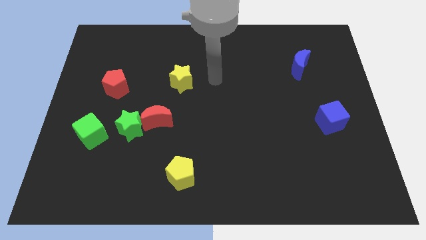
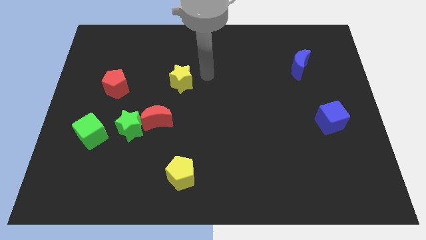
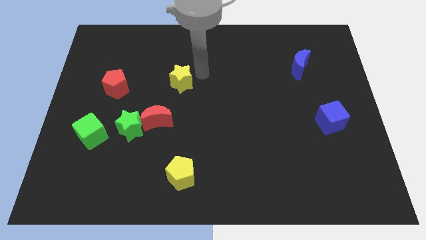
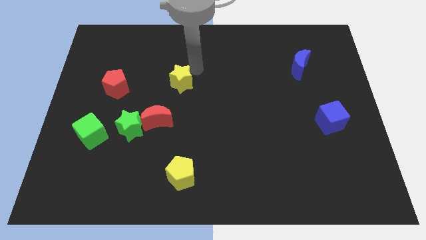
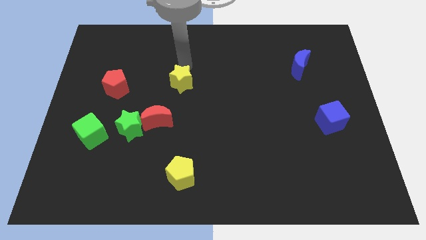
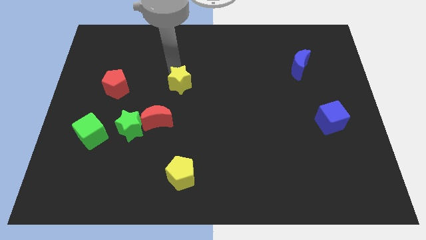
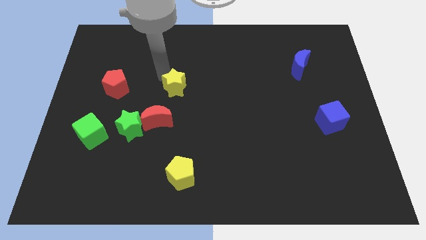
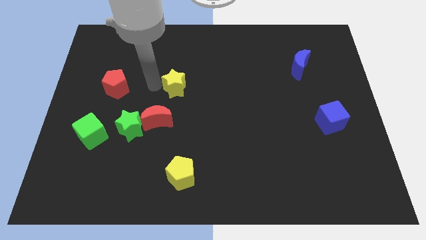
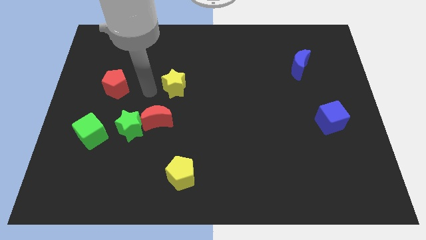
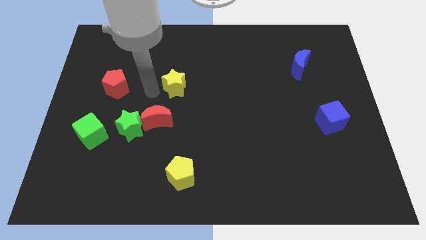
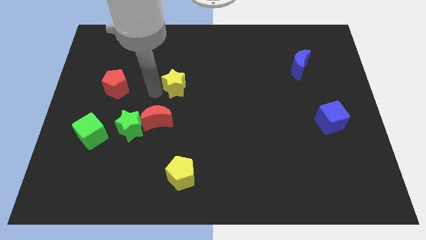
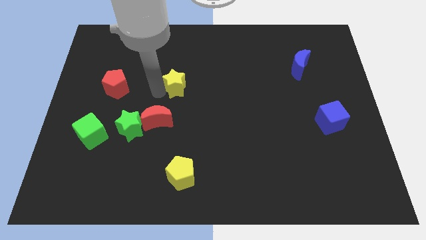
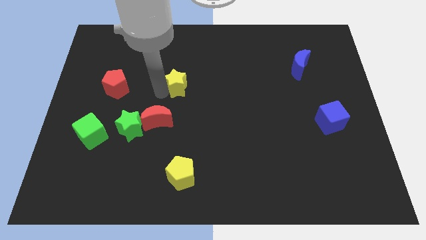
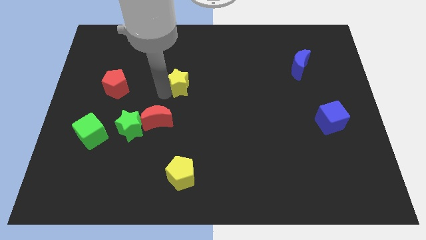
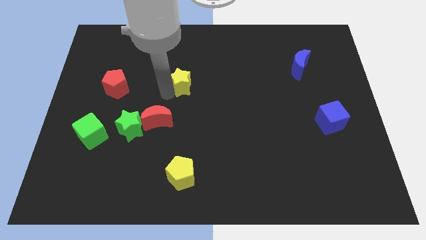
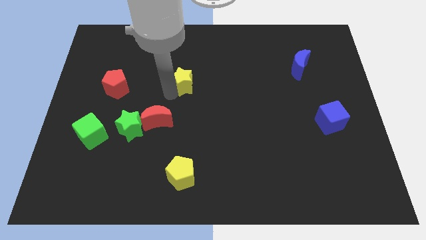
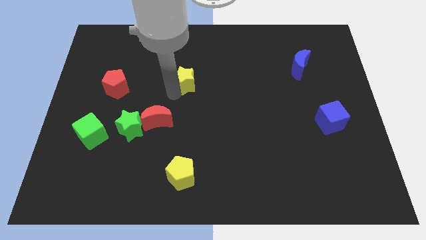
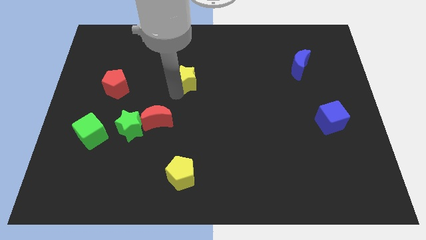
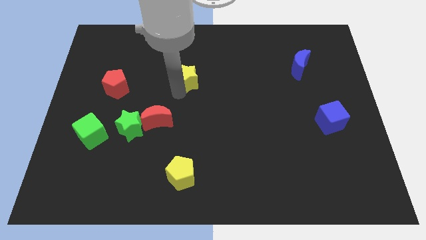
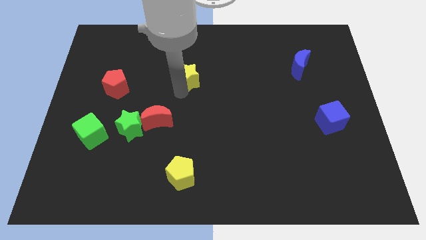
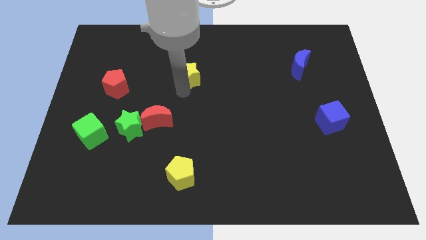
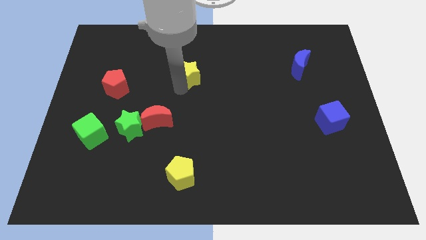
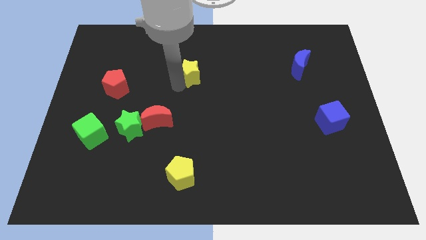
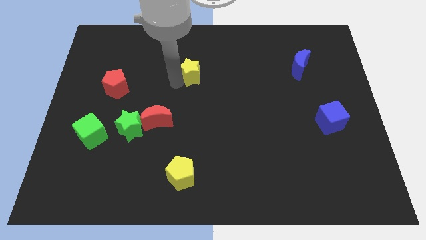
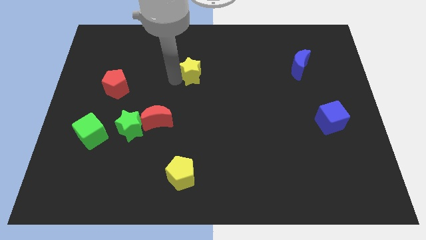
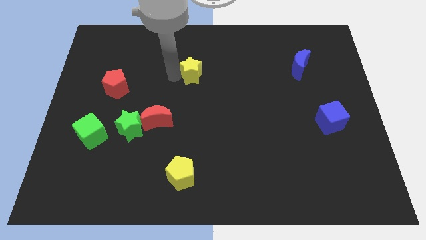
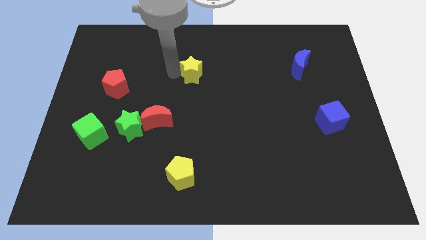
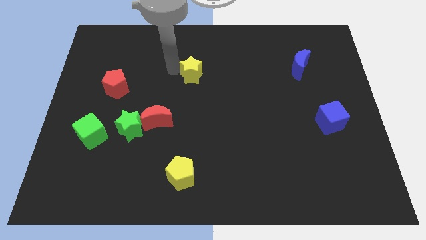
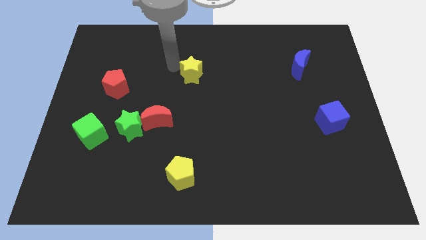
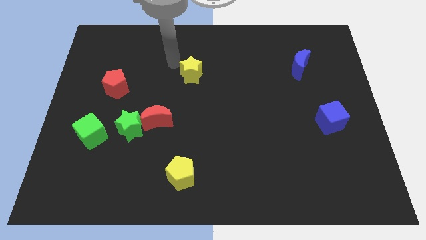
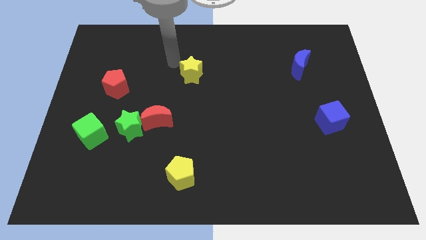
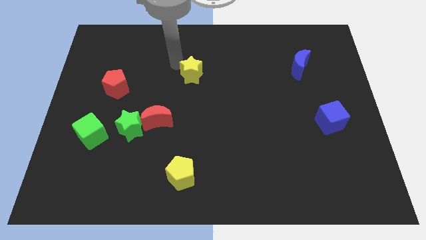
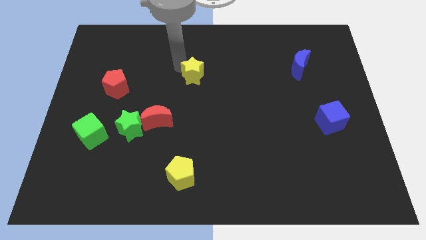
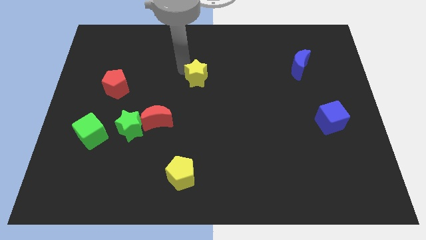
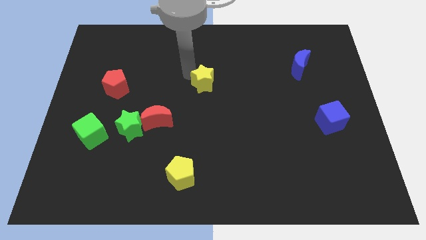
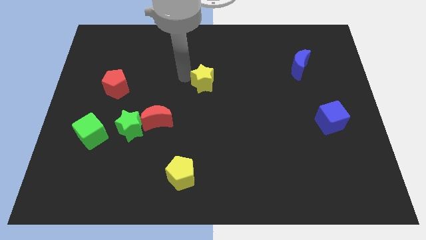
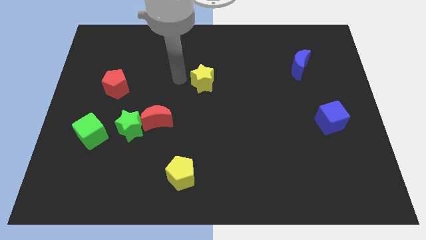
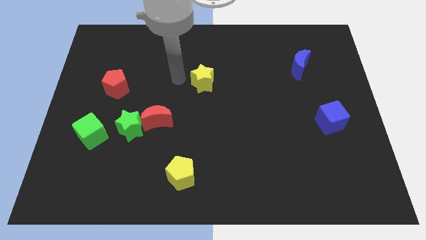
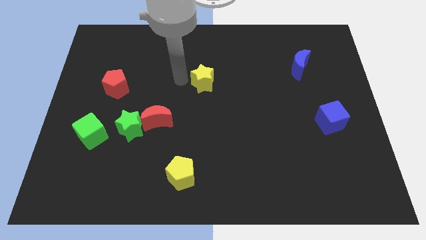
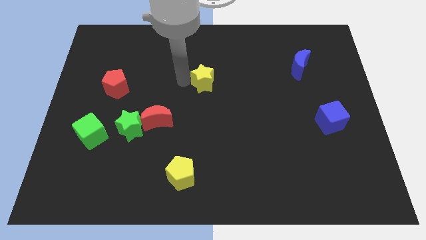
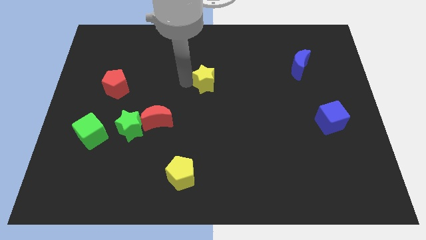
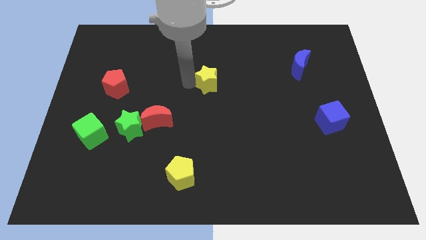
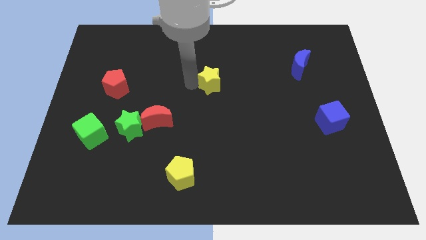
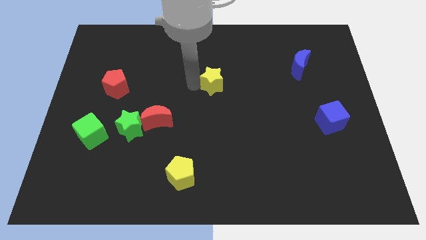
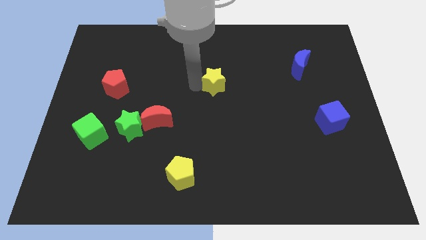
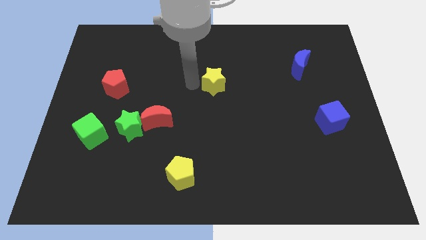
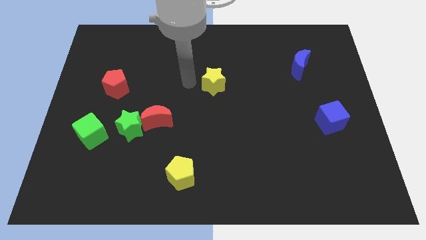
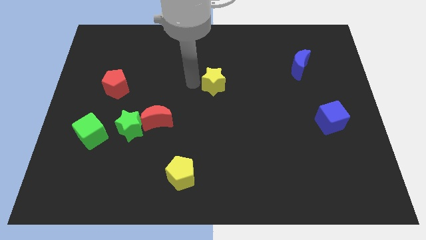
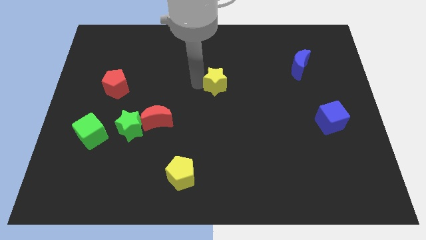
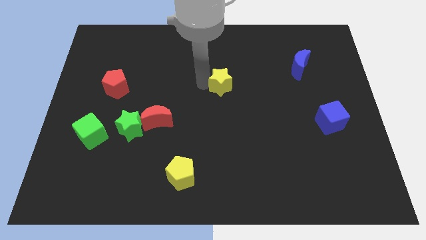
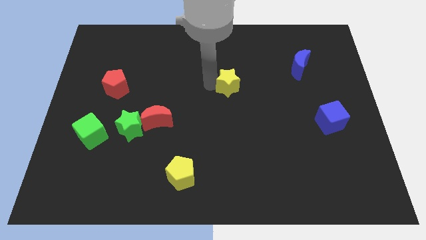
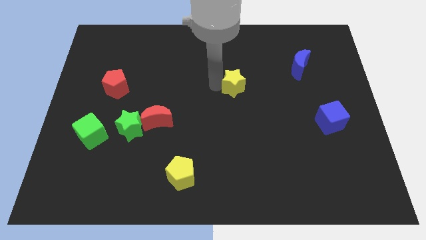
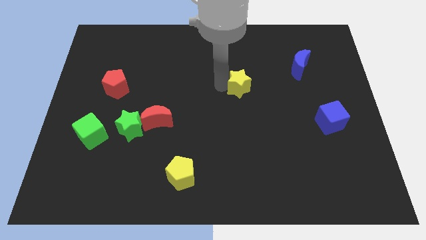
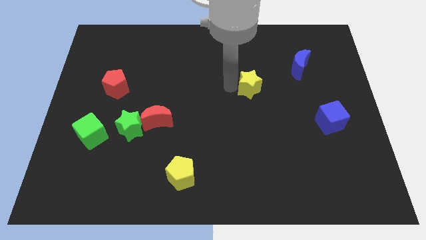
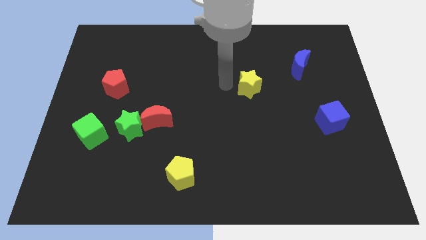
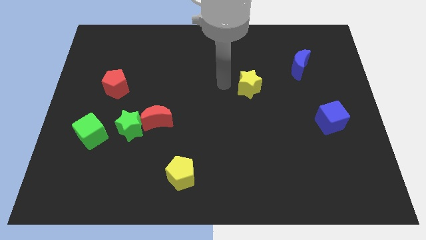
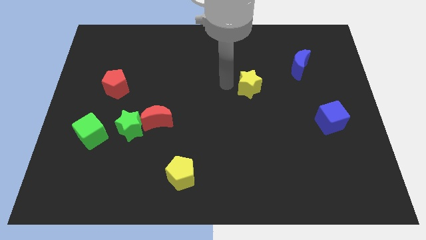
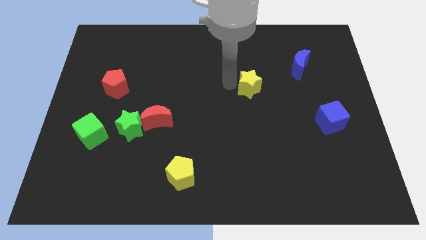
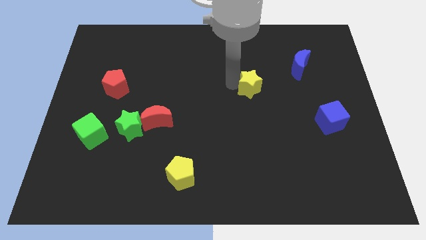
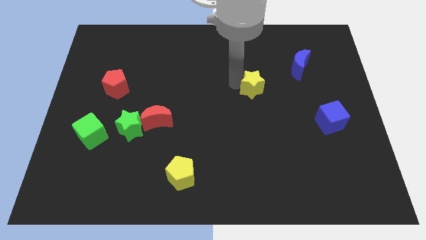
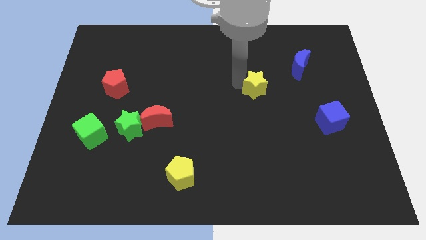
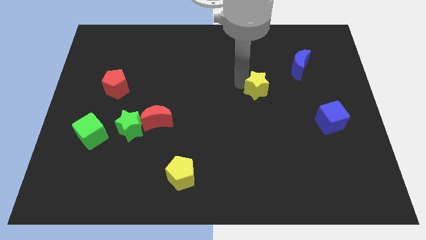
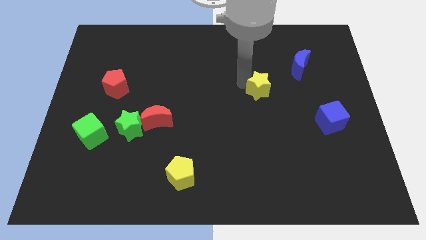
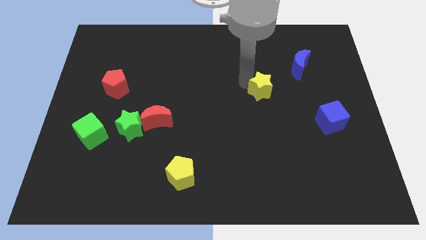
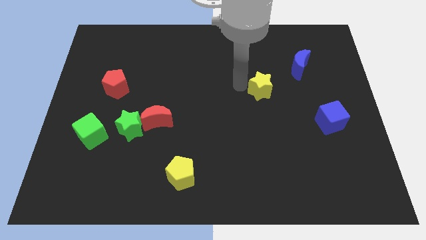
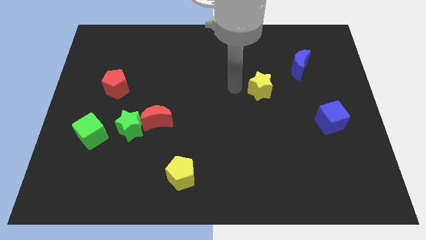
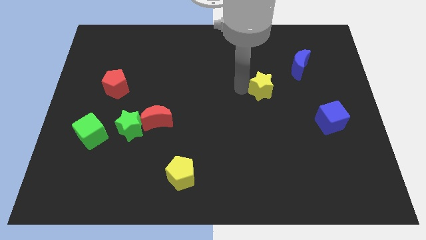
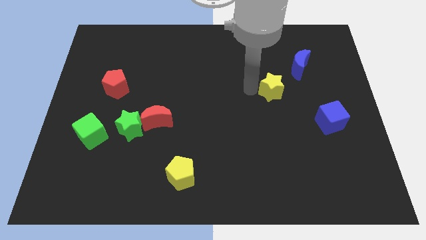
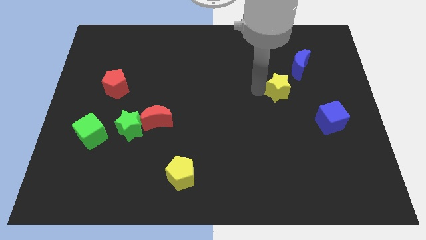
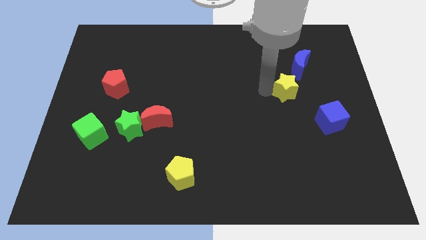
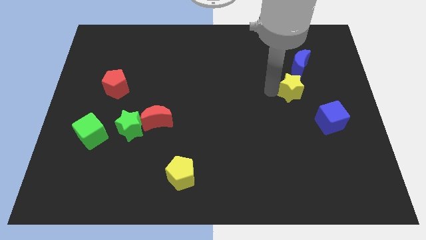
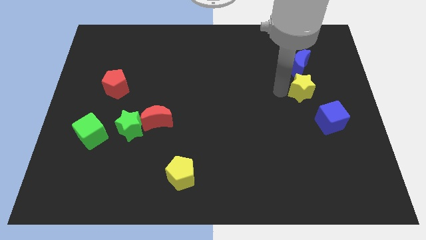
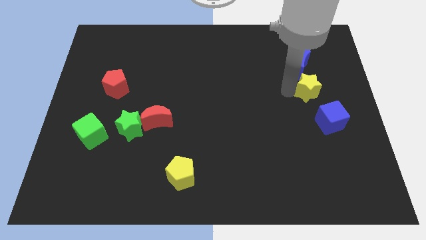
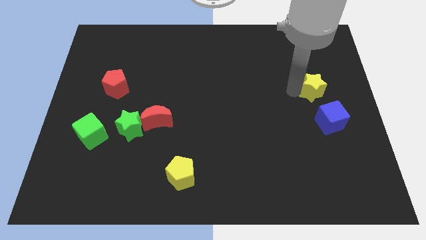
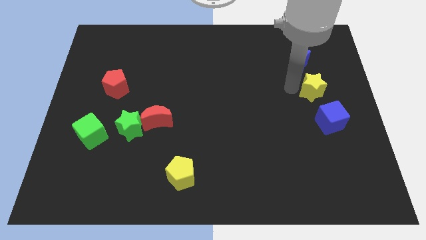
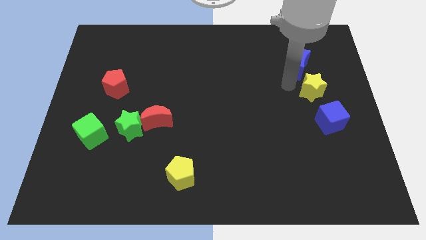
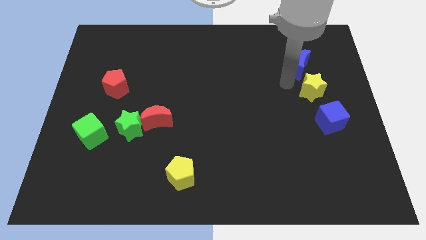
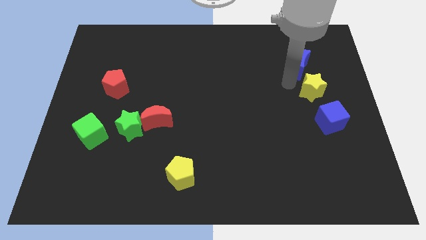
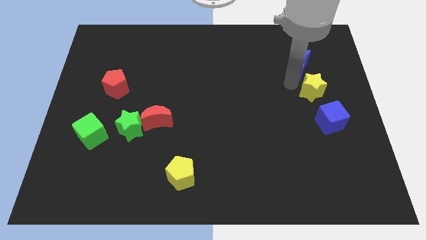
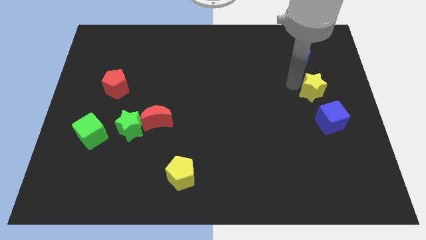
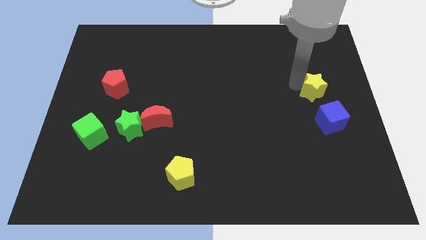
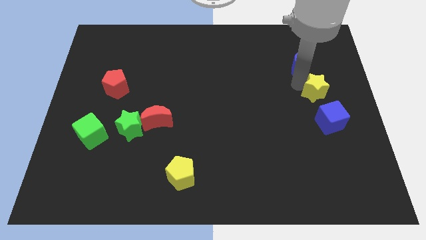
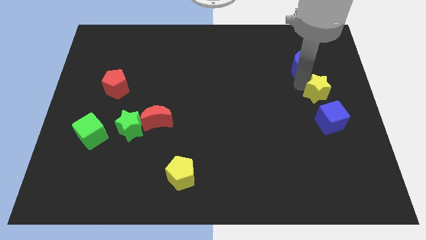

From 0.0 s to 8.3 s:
move the yellow star to the right side
